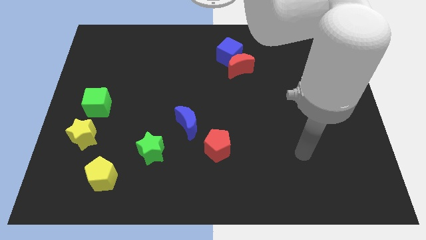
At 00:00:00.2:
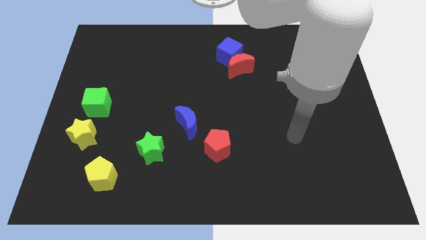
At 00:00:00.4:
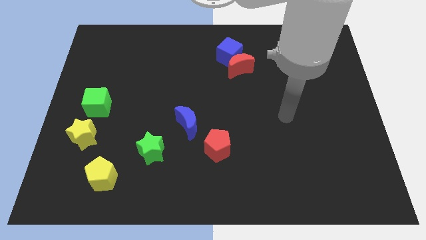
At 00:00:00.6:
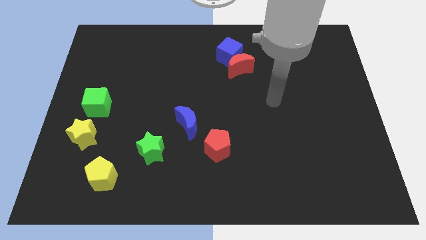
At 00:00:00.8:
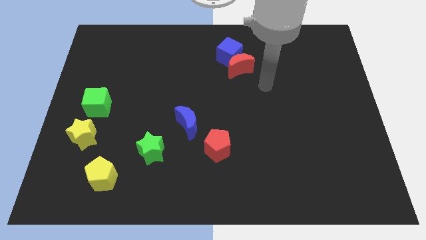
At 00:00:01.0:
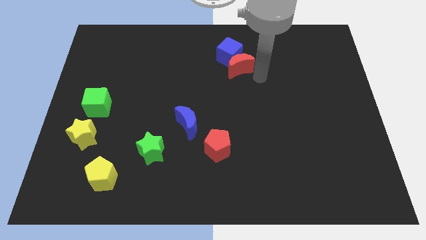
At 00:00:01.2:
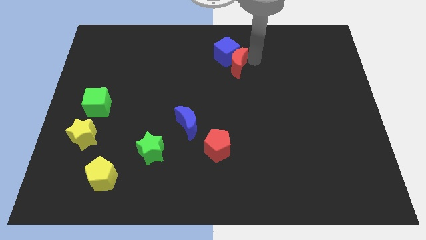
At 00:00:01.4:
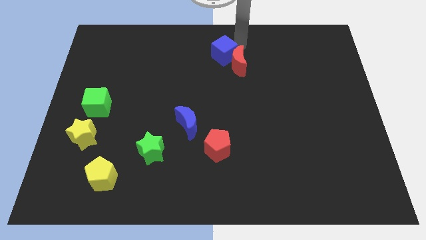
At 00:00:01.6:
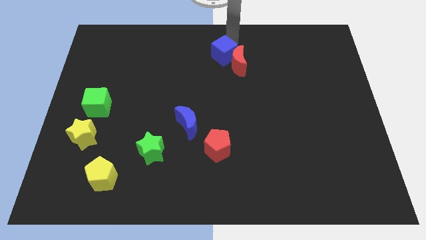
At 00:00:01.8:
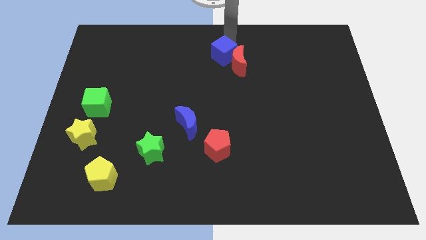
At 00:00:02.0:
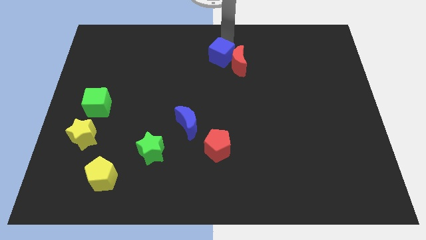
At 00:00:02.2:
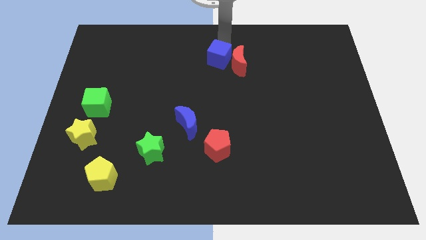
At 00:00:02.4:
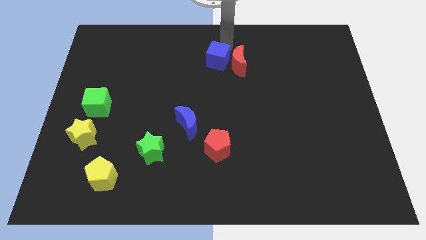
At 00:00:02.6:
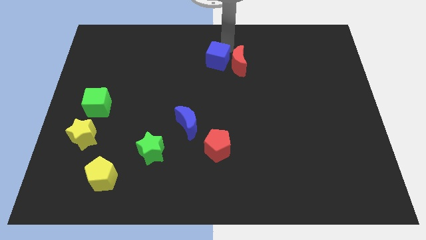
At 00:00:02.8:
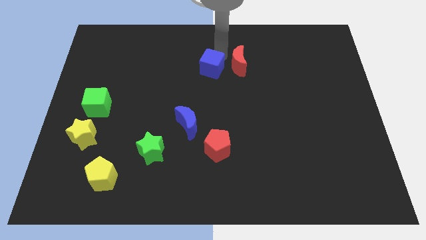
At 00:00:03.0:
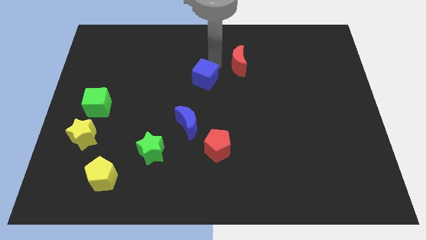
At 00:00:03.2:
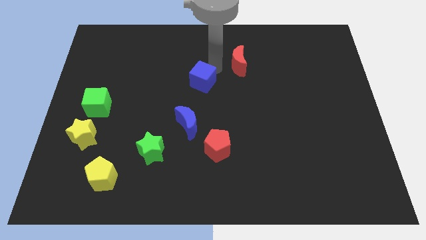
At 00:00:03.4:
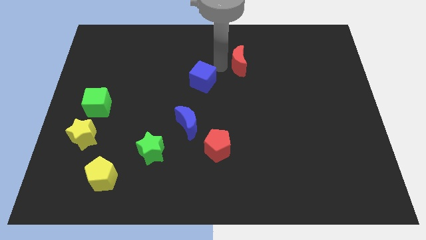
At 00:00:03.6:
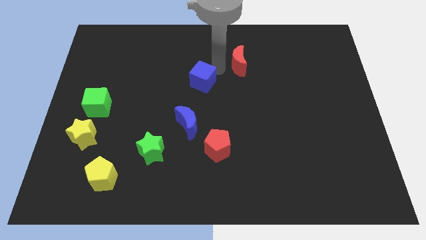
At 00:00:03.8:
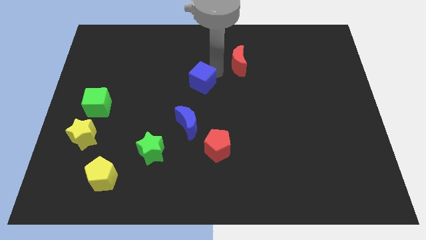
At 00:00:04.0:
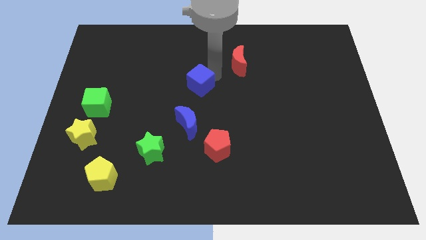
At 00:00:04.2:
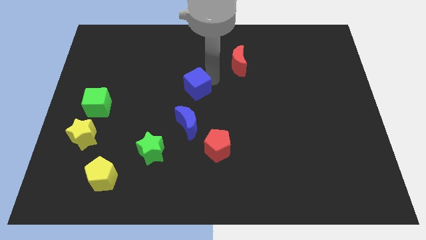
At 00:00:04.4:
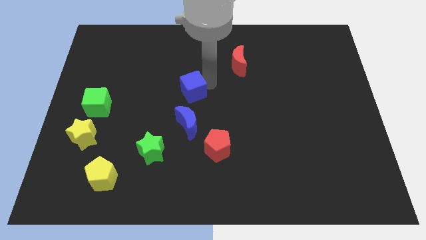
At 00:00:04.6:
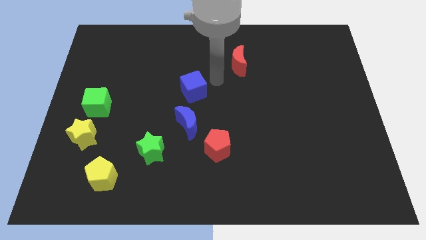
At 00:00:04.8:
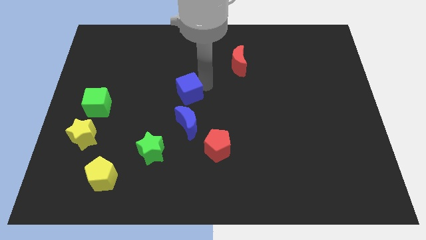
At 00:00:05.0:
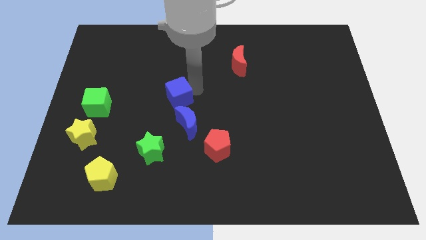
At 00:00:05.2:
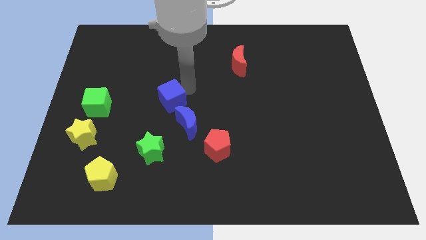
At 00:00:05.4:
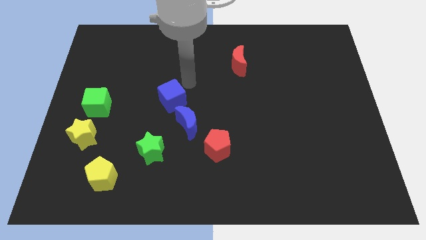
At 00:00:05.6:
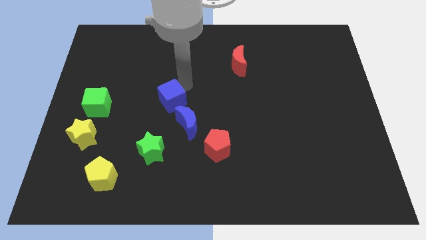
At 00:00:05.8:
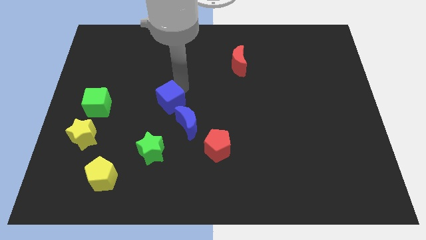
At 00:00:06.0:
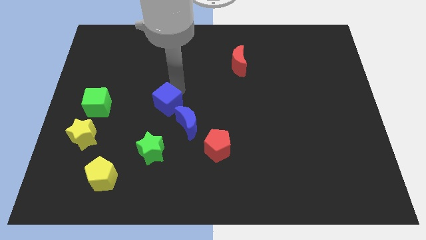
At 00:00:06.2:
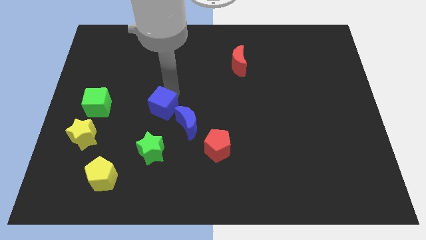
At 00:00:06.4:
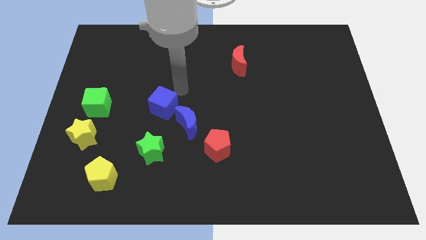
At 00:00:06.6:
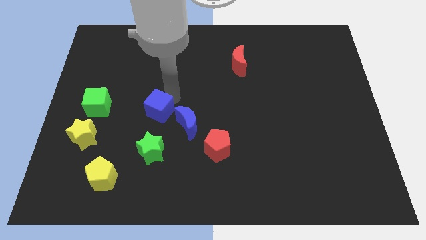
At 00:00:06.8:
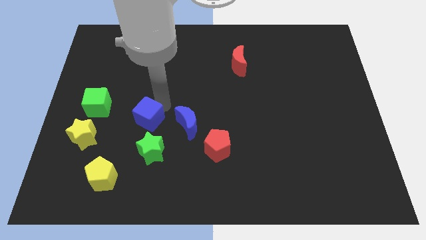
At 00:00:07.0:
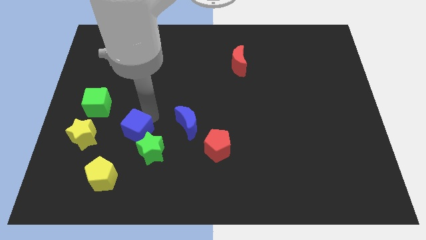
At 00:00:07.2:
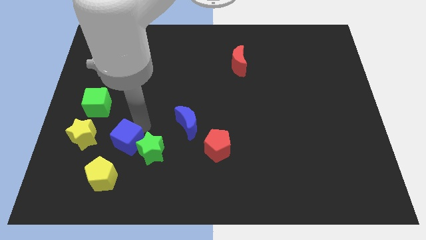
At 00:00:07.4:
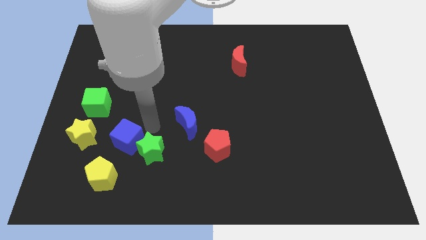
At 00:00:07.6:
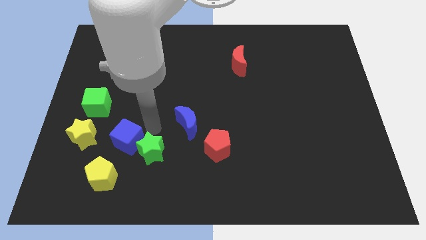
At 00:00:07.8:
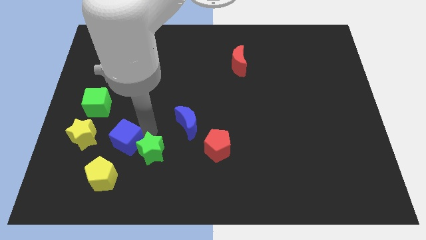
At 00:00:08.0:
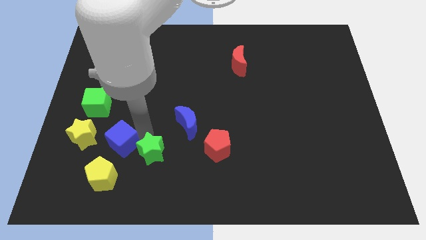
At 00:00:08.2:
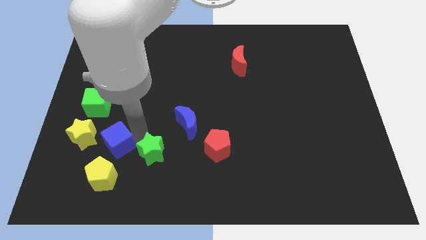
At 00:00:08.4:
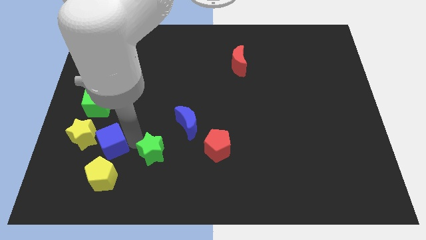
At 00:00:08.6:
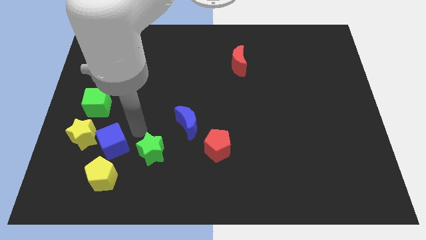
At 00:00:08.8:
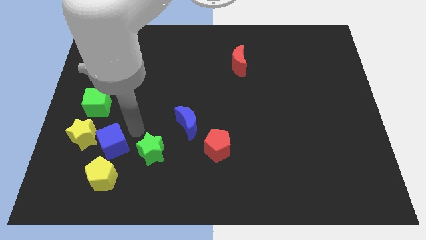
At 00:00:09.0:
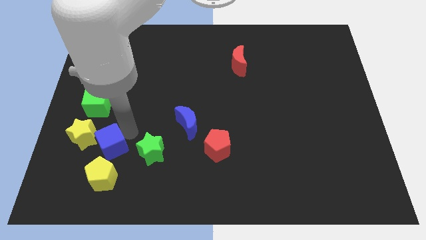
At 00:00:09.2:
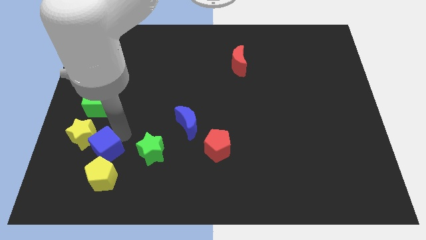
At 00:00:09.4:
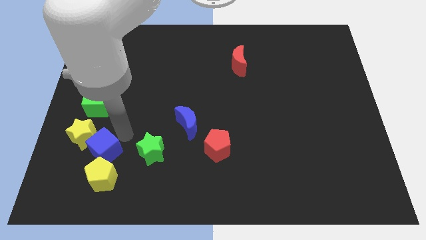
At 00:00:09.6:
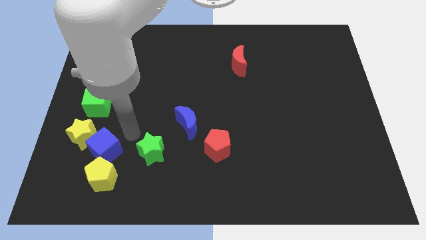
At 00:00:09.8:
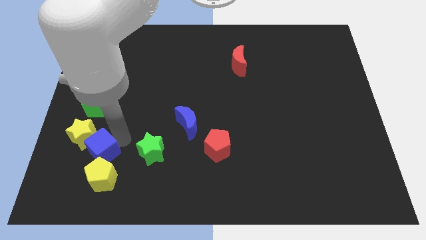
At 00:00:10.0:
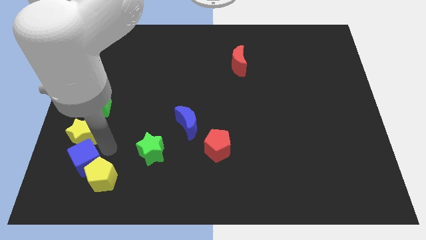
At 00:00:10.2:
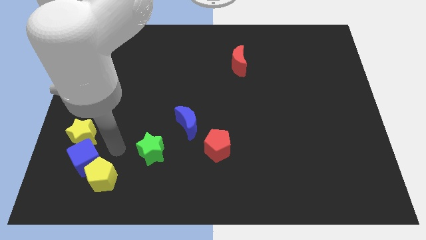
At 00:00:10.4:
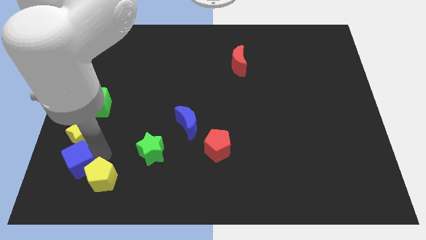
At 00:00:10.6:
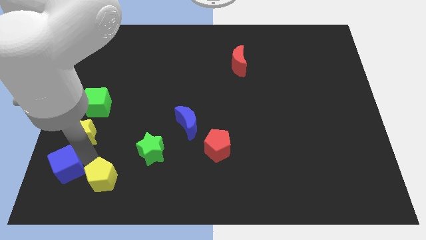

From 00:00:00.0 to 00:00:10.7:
slide the blue cube to the lower left corner

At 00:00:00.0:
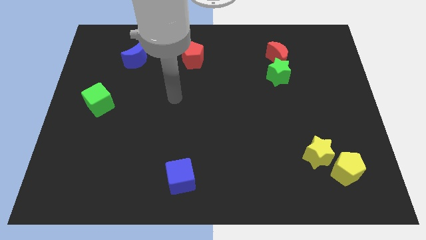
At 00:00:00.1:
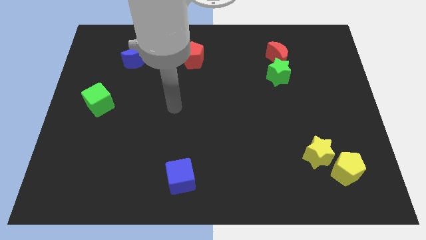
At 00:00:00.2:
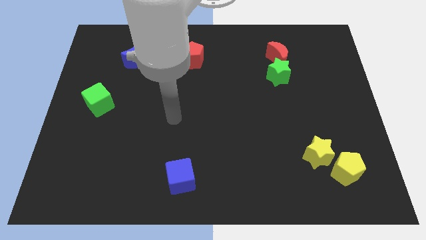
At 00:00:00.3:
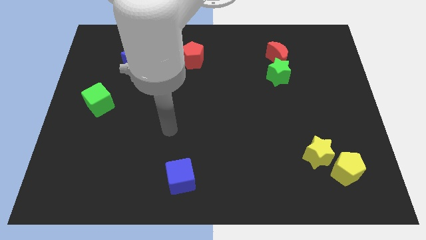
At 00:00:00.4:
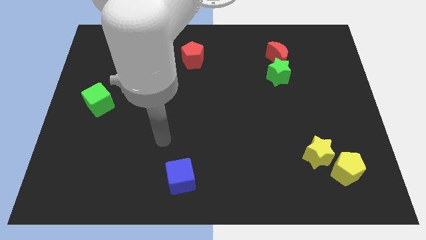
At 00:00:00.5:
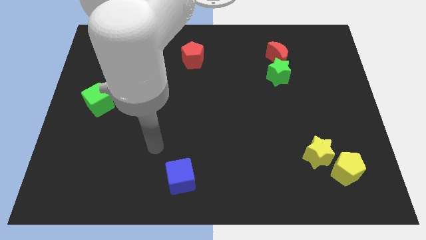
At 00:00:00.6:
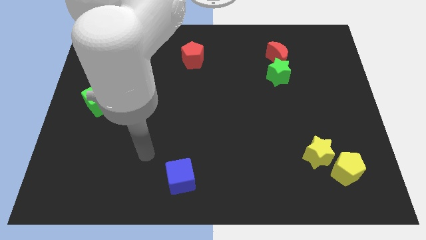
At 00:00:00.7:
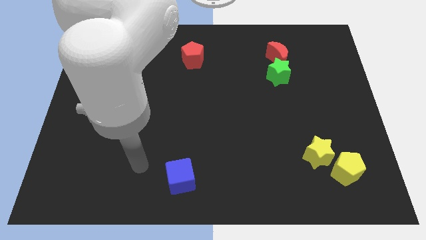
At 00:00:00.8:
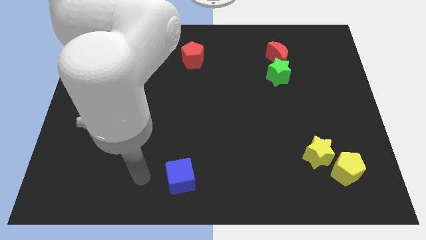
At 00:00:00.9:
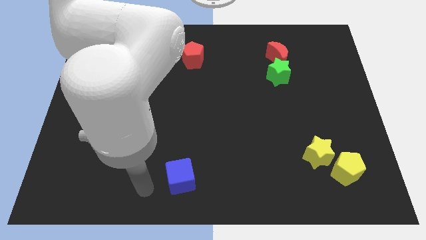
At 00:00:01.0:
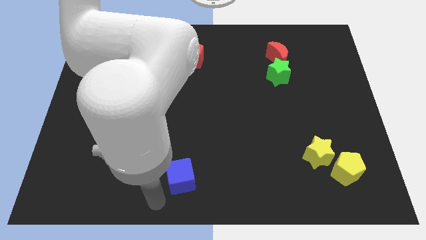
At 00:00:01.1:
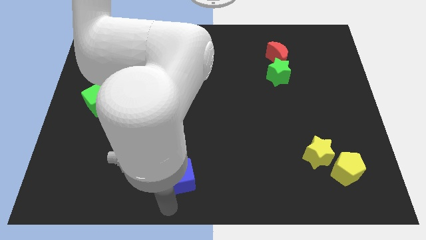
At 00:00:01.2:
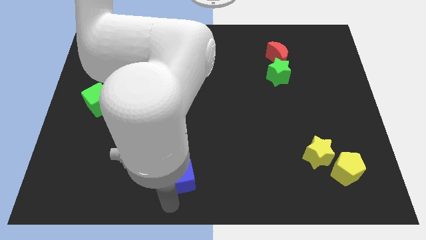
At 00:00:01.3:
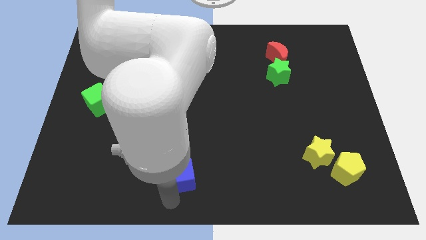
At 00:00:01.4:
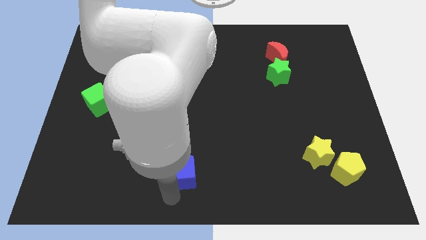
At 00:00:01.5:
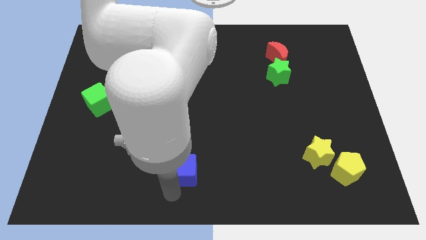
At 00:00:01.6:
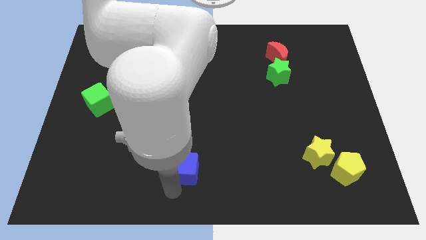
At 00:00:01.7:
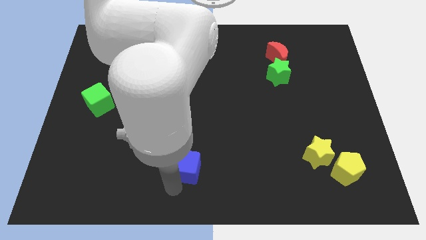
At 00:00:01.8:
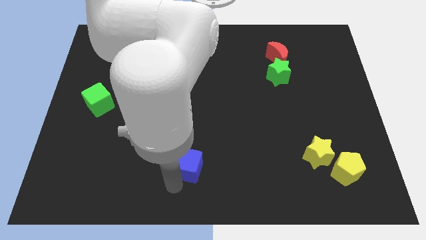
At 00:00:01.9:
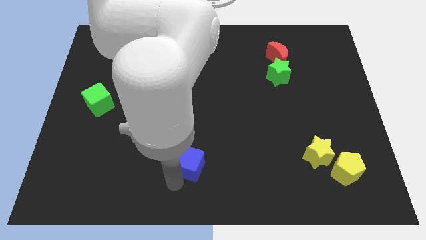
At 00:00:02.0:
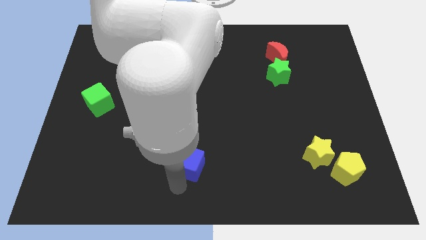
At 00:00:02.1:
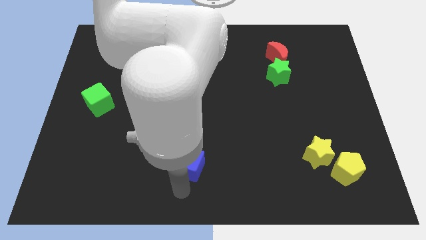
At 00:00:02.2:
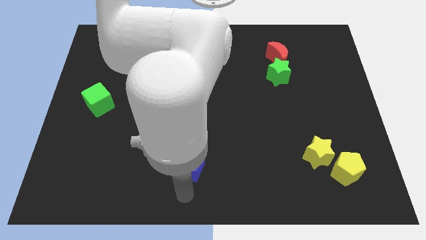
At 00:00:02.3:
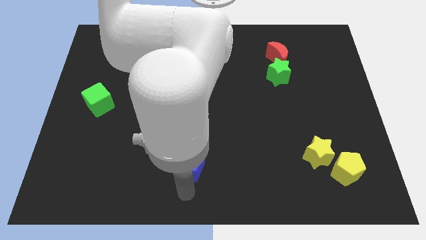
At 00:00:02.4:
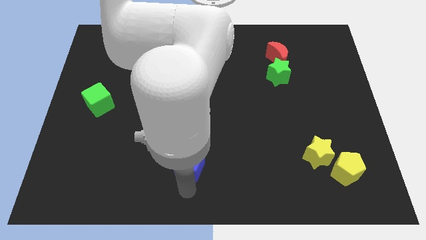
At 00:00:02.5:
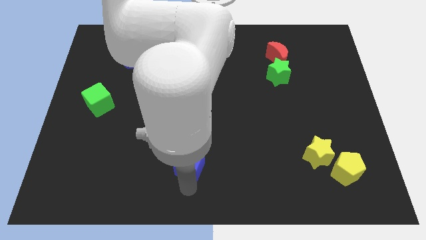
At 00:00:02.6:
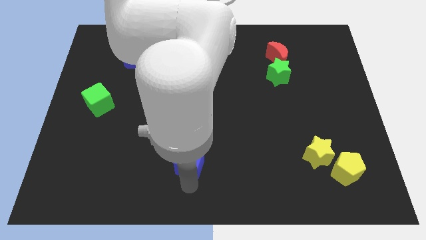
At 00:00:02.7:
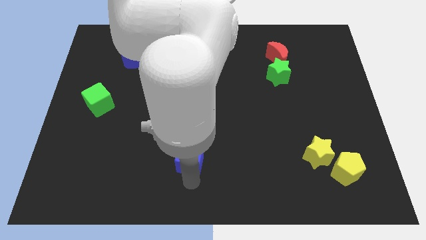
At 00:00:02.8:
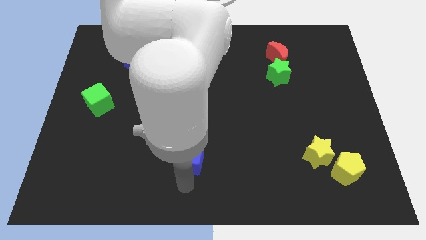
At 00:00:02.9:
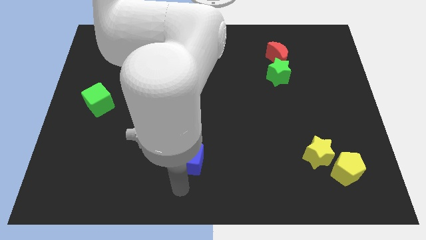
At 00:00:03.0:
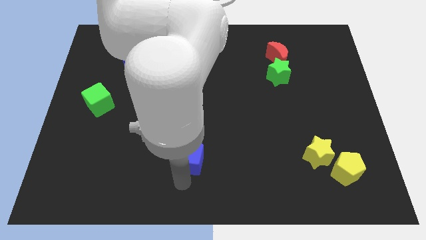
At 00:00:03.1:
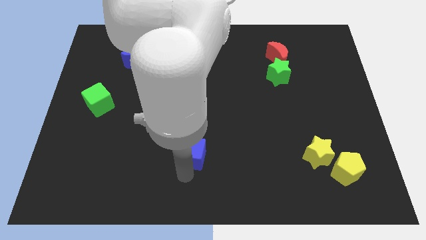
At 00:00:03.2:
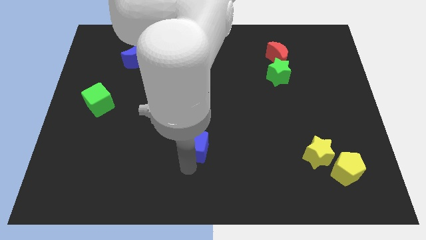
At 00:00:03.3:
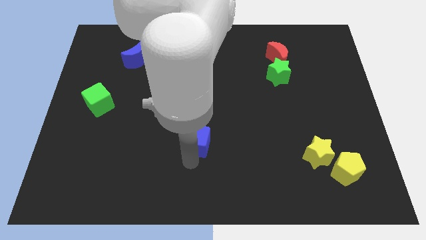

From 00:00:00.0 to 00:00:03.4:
put the blue cube to the middle of the board
